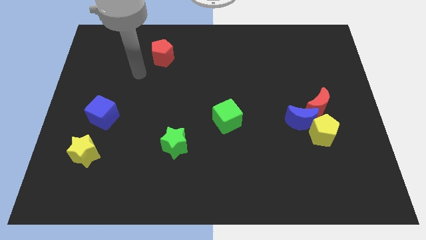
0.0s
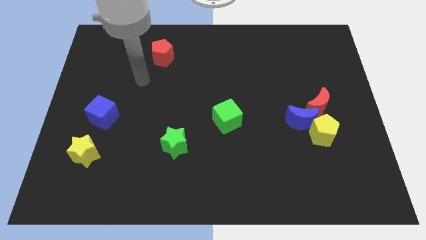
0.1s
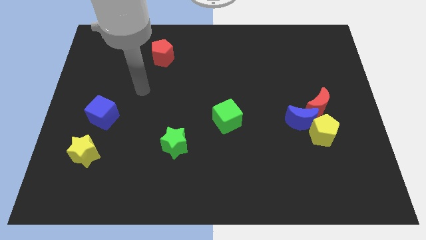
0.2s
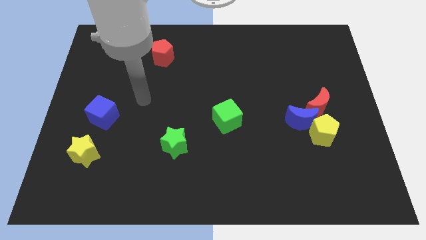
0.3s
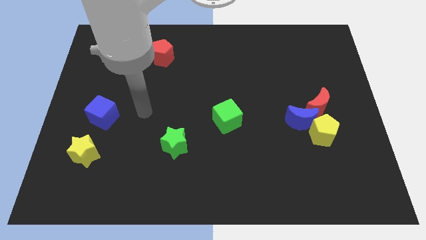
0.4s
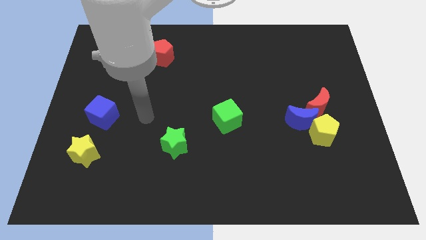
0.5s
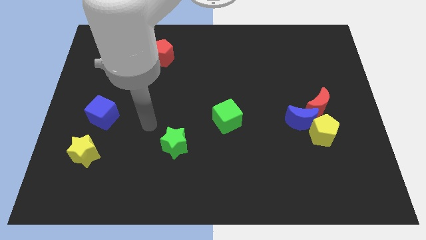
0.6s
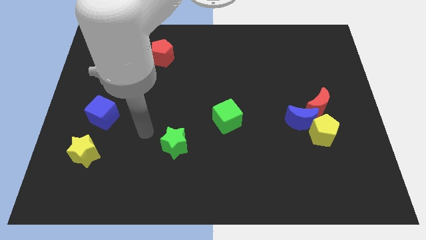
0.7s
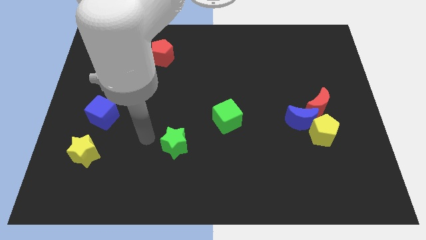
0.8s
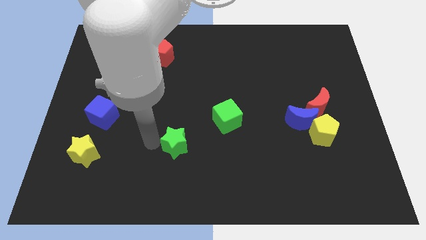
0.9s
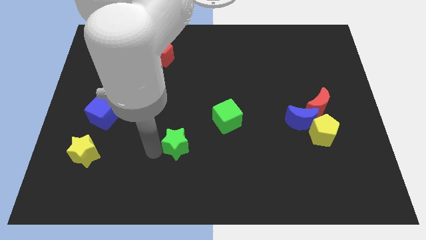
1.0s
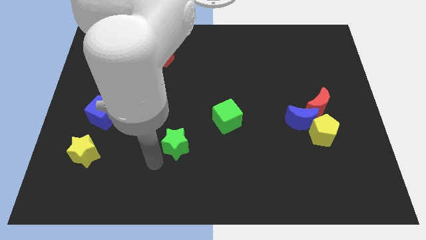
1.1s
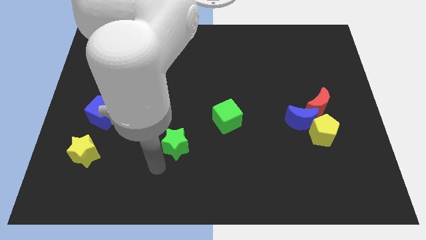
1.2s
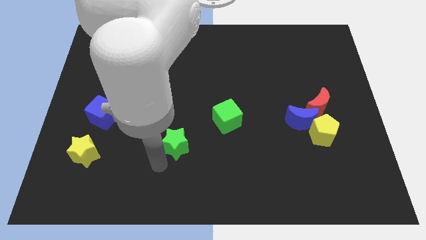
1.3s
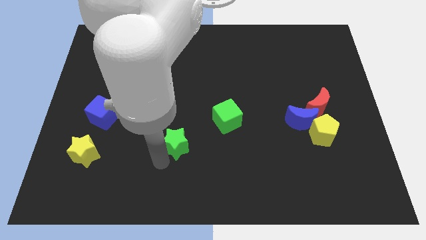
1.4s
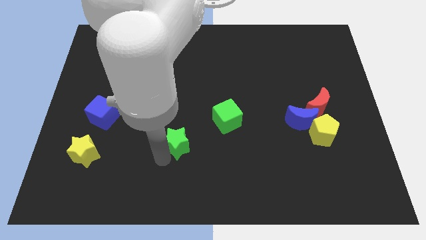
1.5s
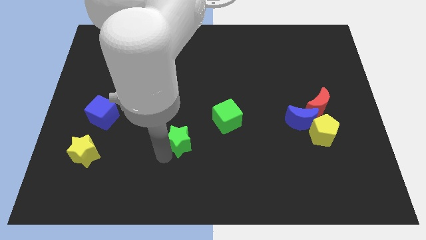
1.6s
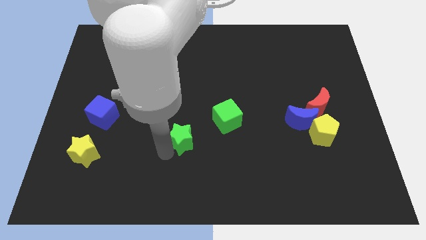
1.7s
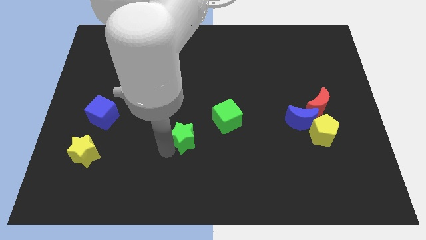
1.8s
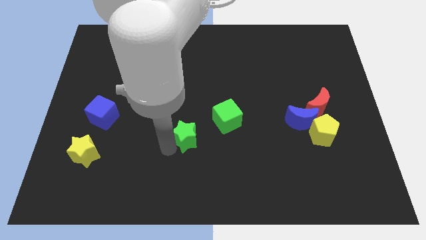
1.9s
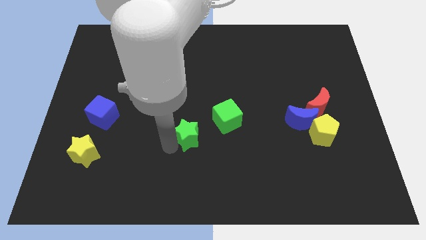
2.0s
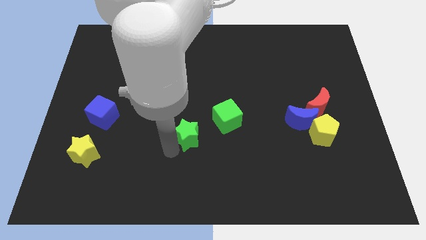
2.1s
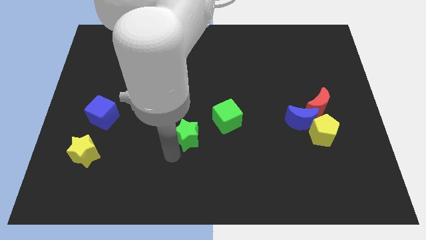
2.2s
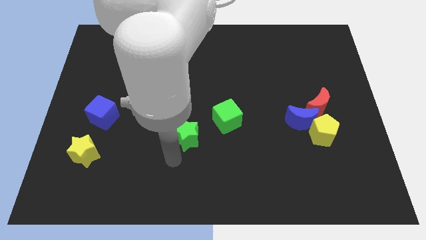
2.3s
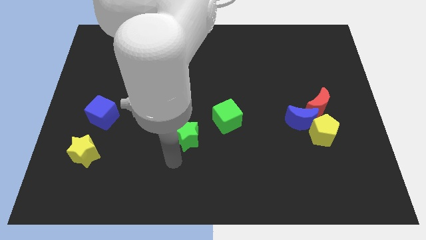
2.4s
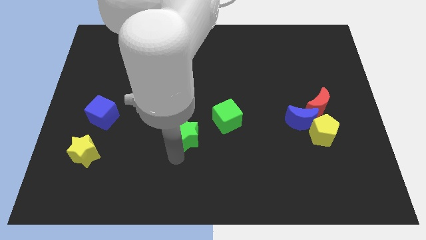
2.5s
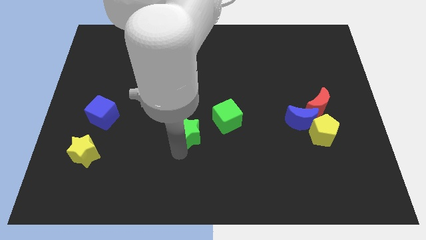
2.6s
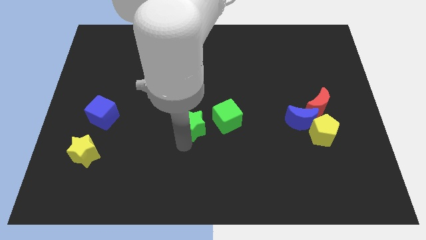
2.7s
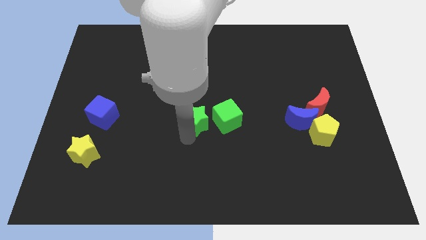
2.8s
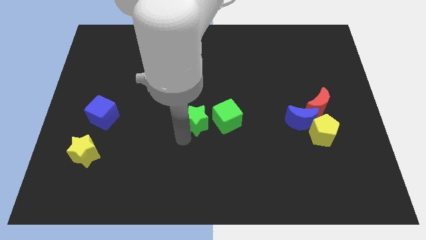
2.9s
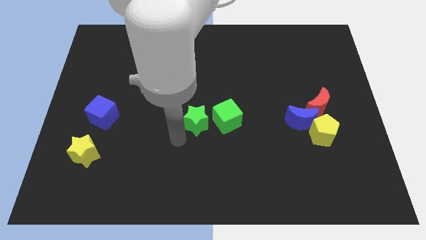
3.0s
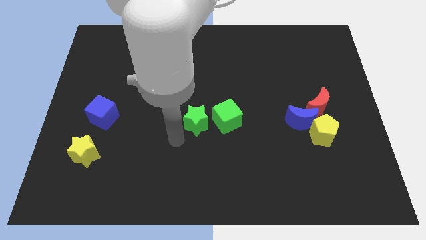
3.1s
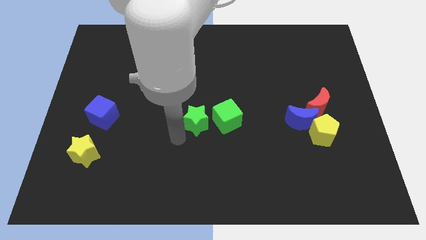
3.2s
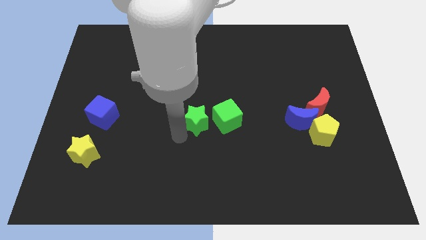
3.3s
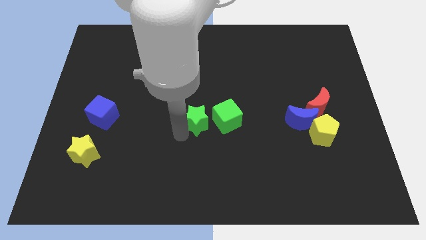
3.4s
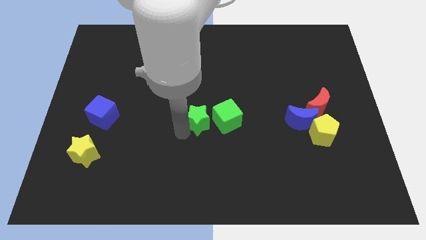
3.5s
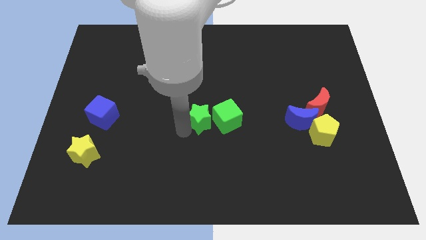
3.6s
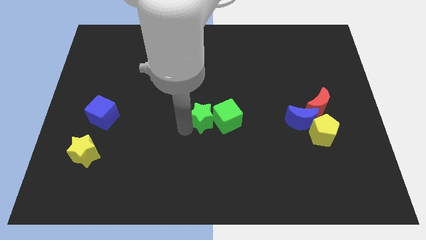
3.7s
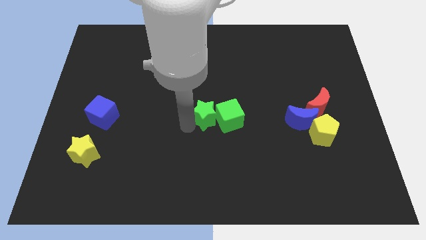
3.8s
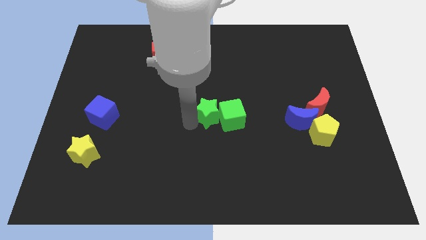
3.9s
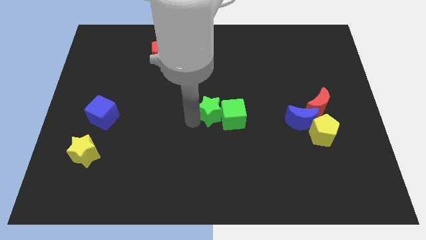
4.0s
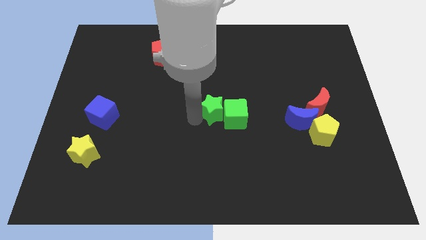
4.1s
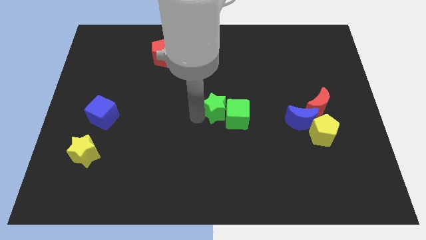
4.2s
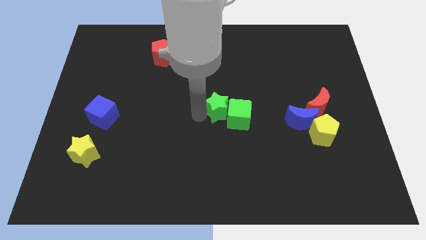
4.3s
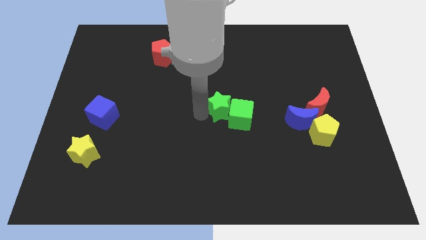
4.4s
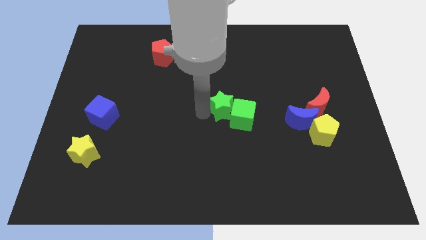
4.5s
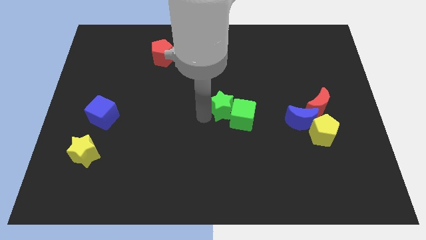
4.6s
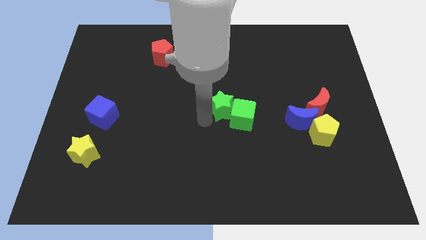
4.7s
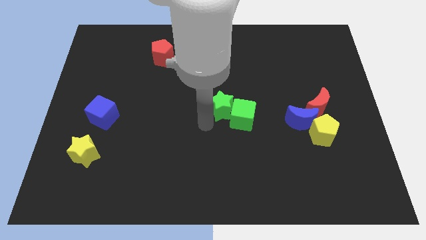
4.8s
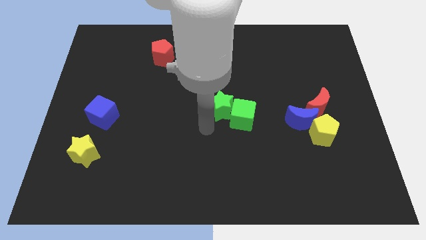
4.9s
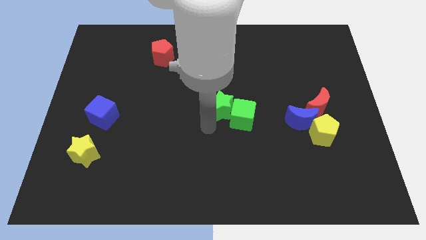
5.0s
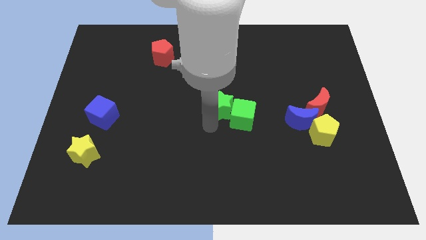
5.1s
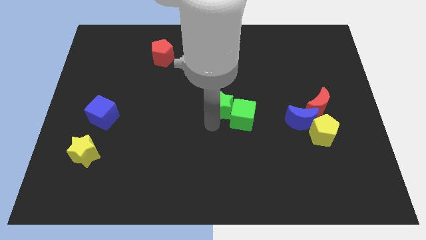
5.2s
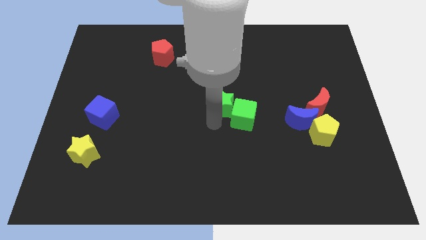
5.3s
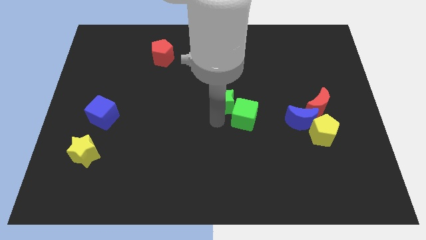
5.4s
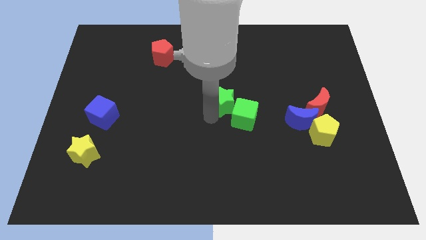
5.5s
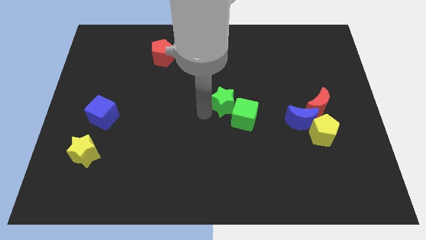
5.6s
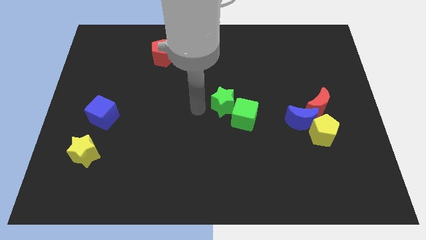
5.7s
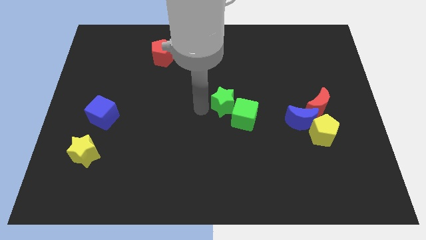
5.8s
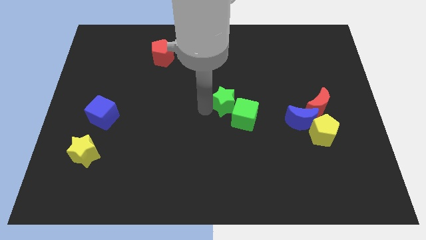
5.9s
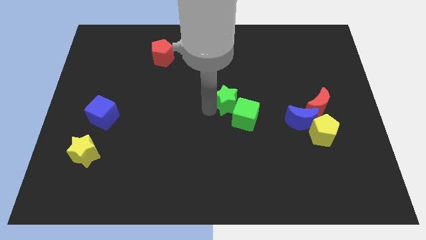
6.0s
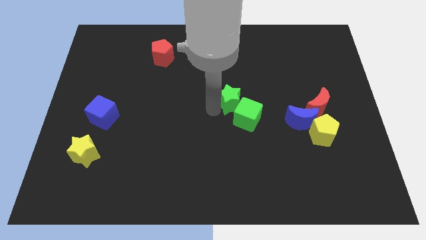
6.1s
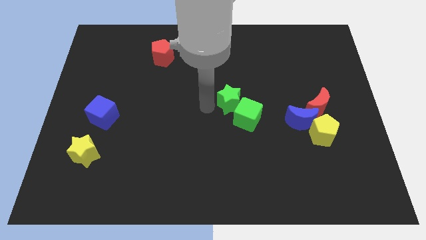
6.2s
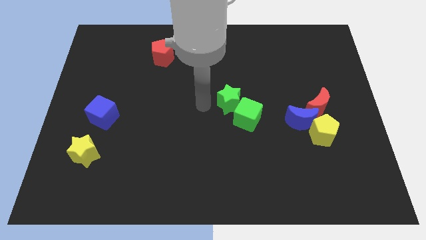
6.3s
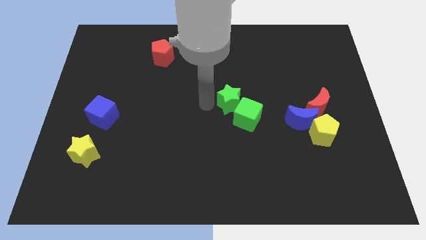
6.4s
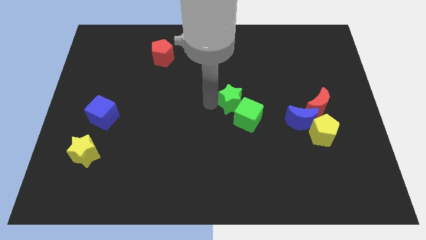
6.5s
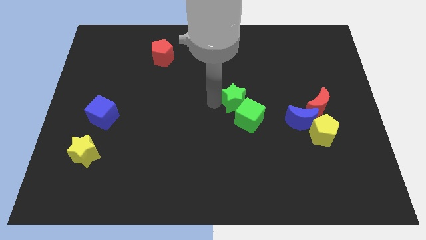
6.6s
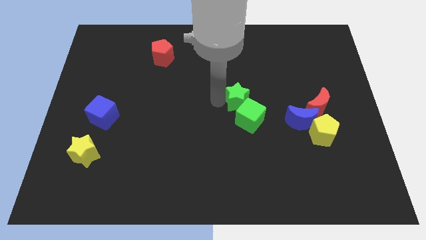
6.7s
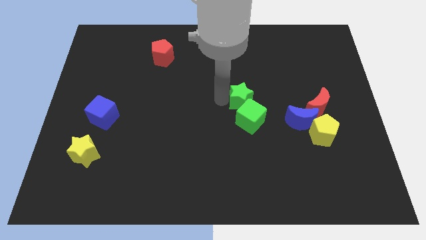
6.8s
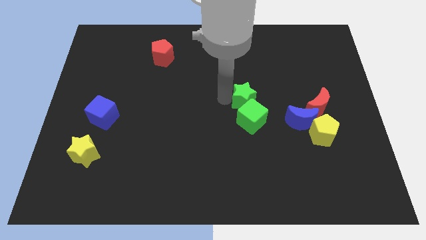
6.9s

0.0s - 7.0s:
move the green star to the top right side of the green cube
